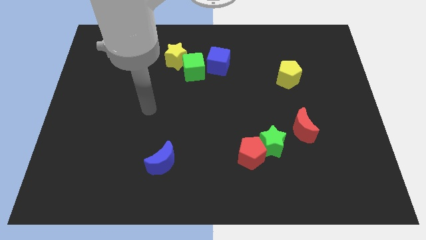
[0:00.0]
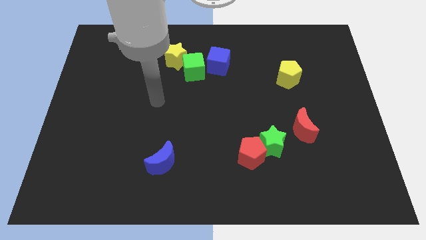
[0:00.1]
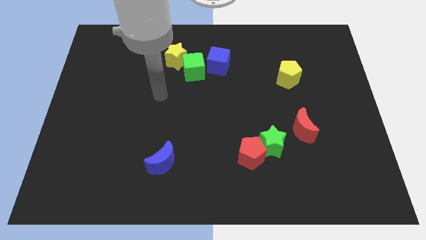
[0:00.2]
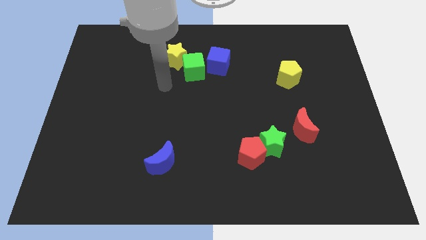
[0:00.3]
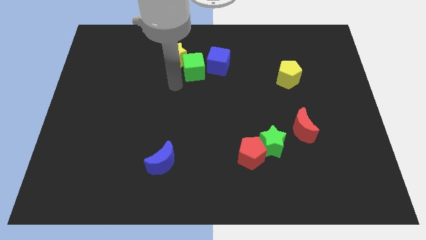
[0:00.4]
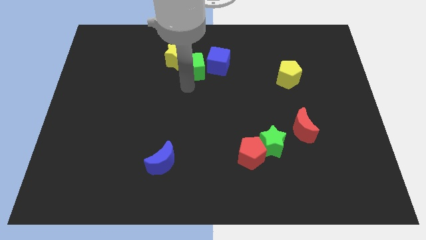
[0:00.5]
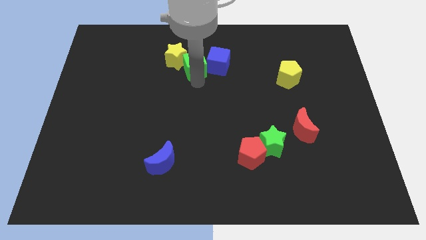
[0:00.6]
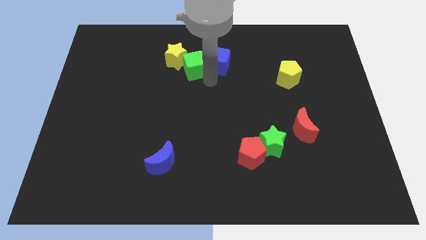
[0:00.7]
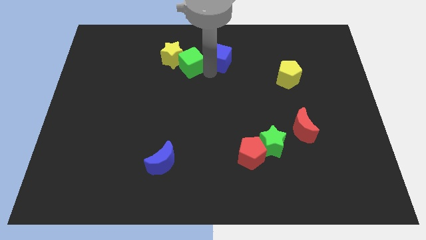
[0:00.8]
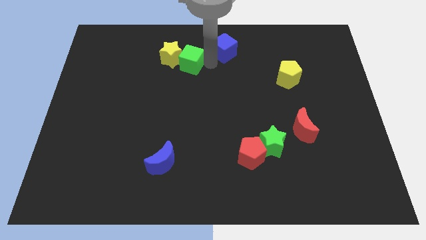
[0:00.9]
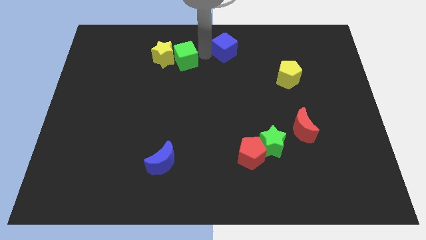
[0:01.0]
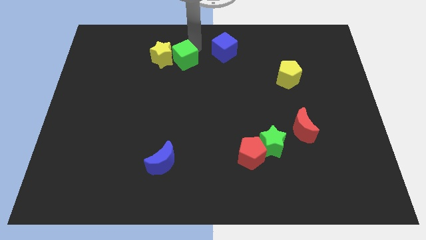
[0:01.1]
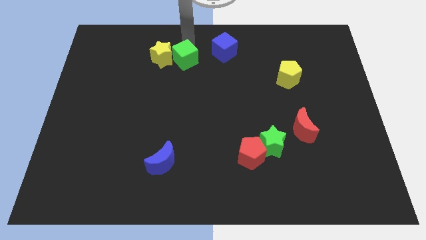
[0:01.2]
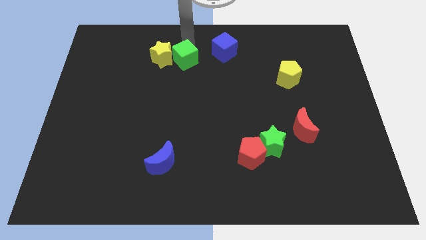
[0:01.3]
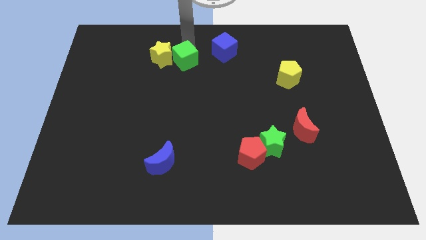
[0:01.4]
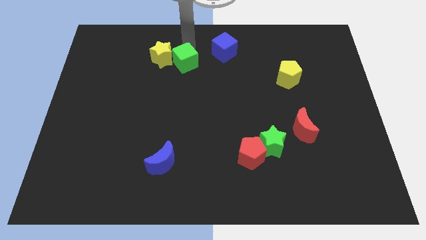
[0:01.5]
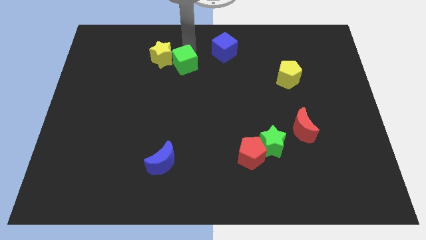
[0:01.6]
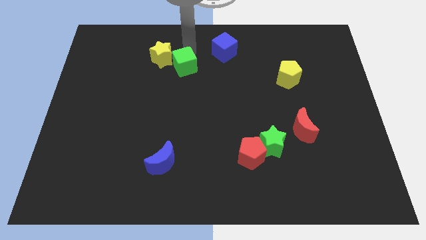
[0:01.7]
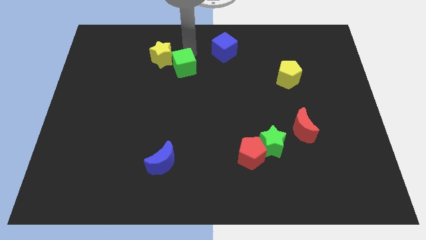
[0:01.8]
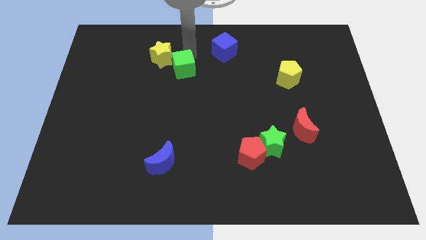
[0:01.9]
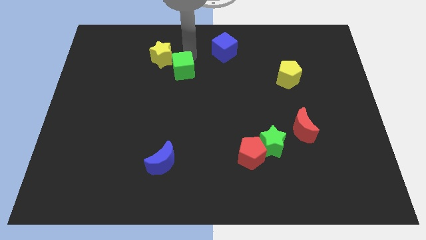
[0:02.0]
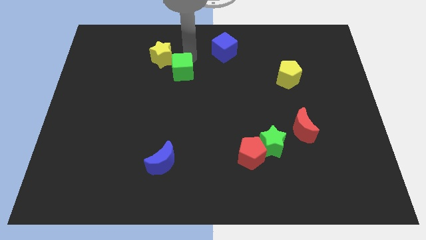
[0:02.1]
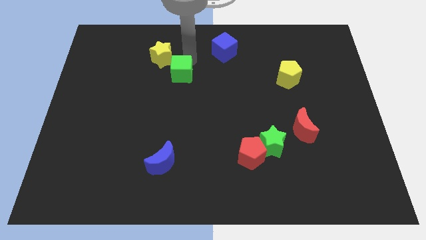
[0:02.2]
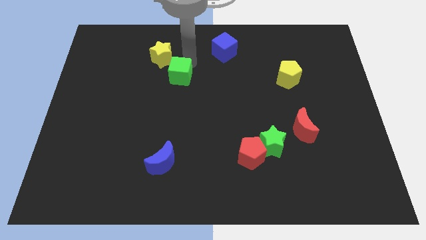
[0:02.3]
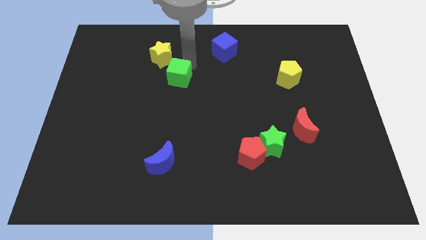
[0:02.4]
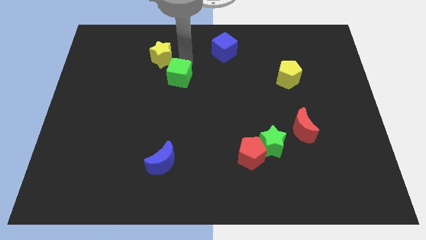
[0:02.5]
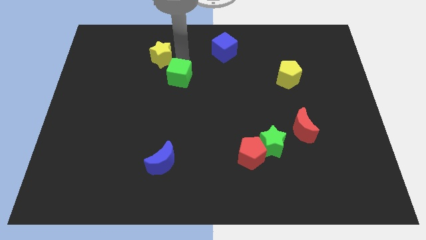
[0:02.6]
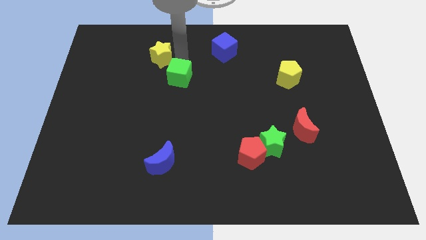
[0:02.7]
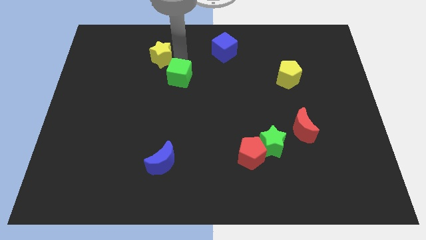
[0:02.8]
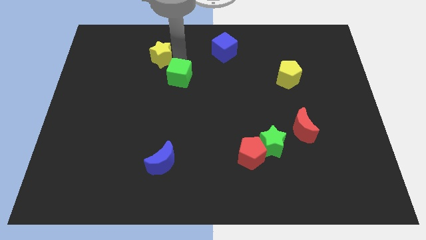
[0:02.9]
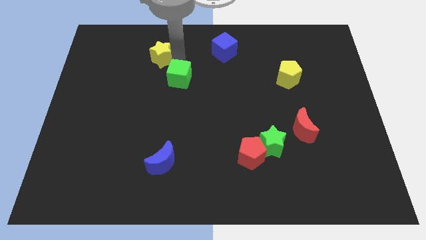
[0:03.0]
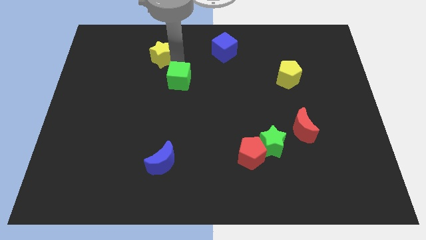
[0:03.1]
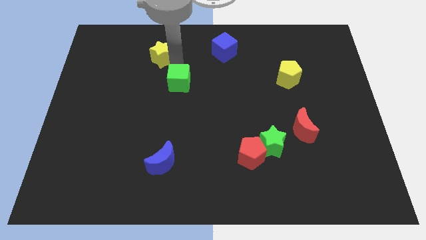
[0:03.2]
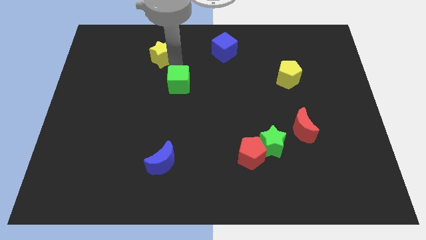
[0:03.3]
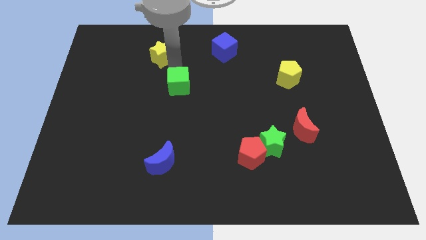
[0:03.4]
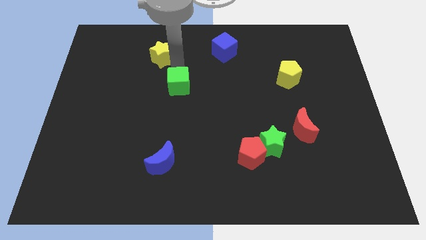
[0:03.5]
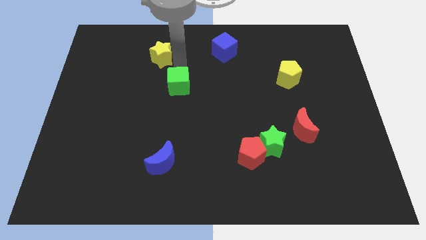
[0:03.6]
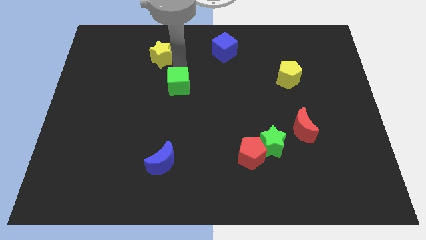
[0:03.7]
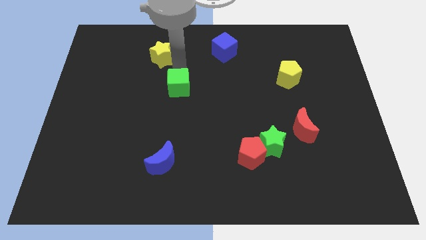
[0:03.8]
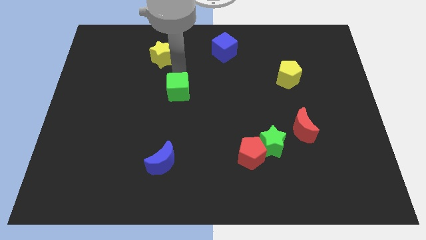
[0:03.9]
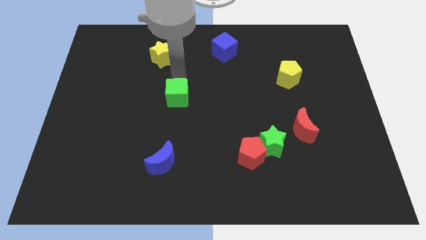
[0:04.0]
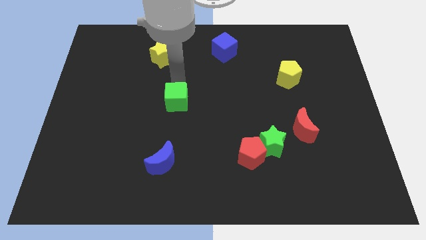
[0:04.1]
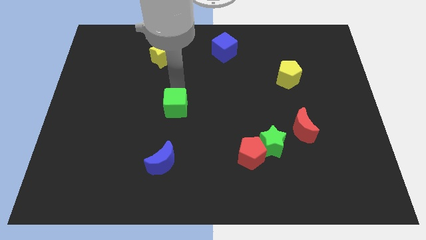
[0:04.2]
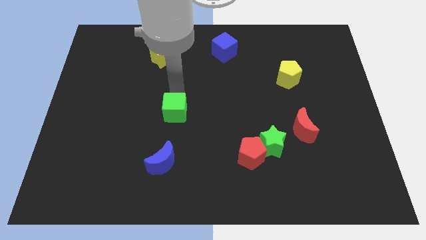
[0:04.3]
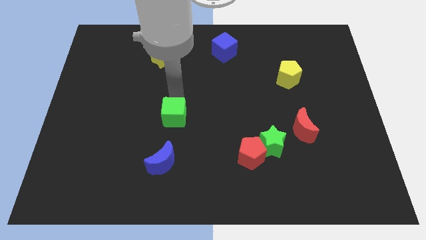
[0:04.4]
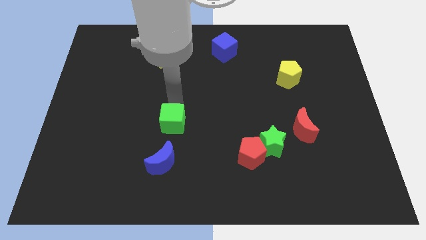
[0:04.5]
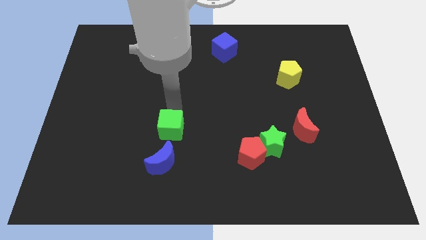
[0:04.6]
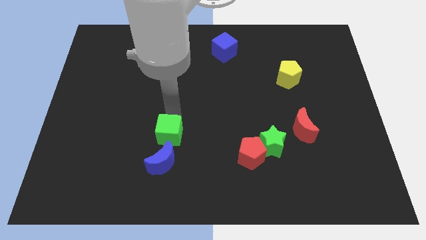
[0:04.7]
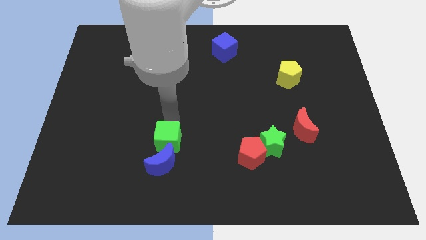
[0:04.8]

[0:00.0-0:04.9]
put the green cube towards the blue moon

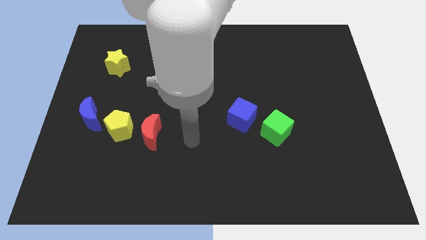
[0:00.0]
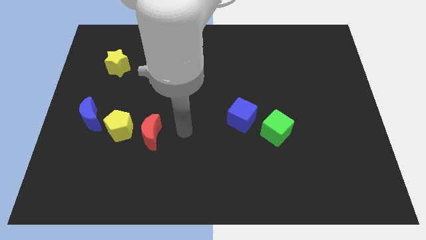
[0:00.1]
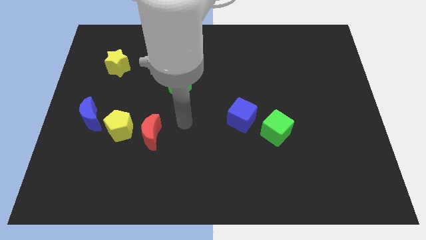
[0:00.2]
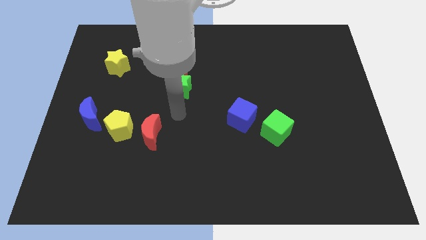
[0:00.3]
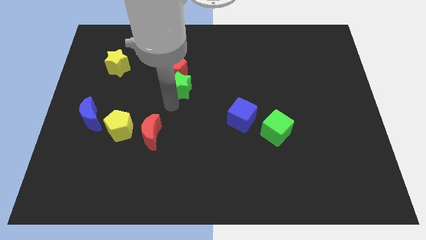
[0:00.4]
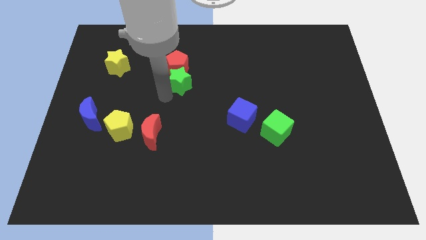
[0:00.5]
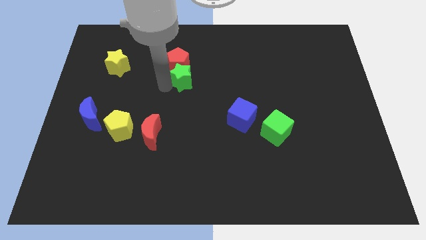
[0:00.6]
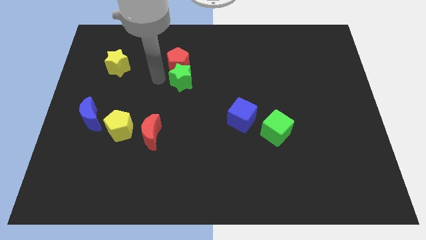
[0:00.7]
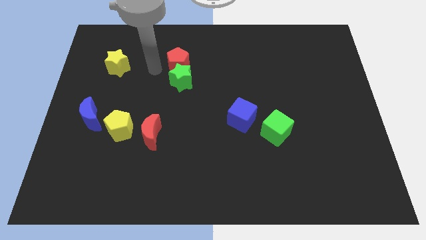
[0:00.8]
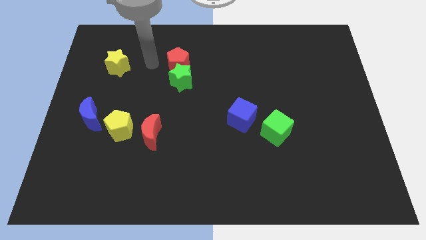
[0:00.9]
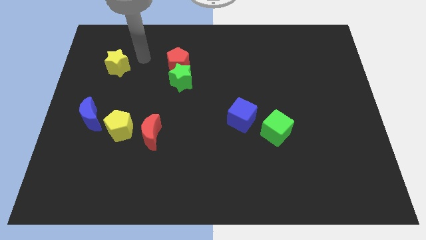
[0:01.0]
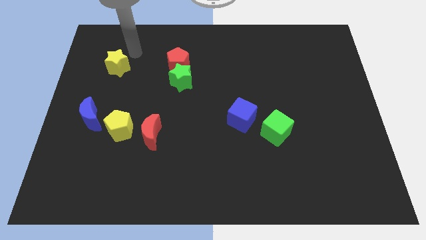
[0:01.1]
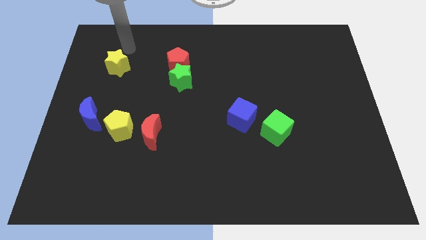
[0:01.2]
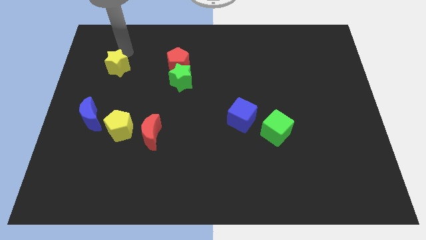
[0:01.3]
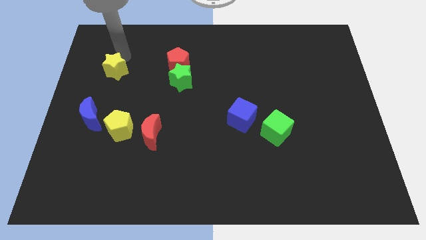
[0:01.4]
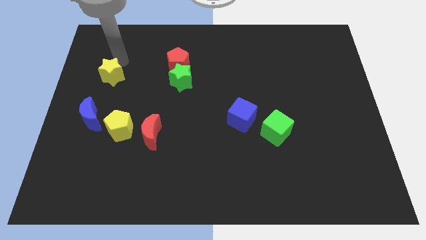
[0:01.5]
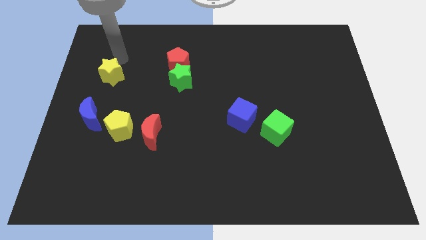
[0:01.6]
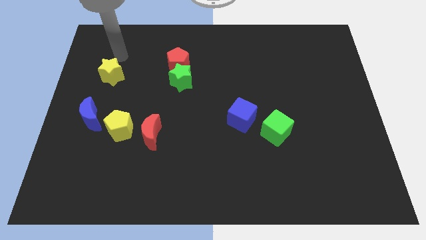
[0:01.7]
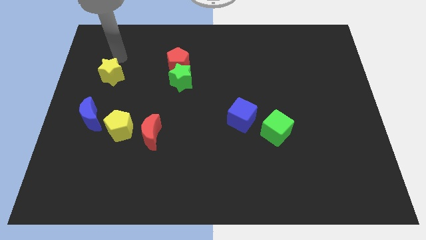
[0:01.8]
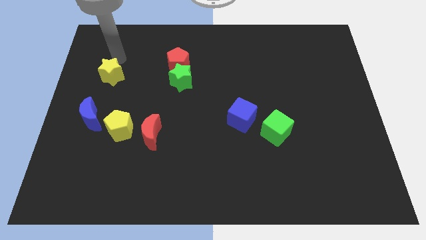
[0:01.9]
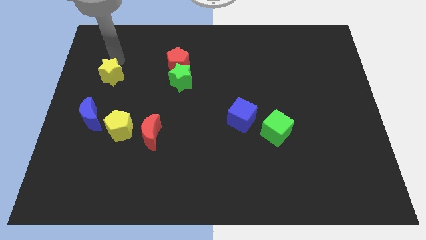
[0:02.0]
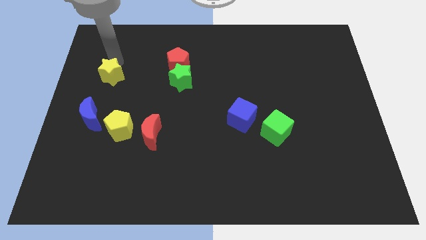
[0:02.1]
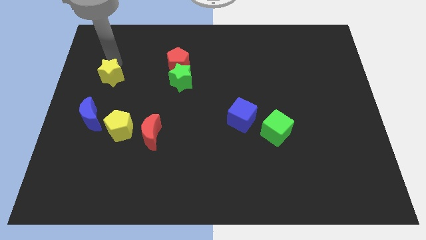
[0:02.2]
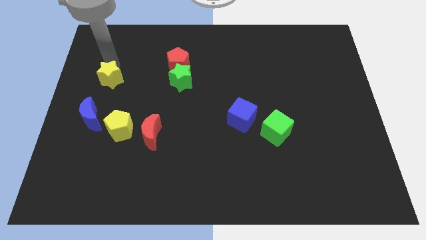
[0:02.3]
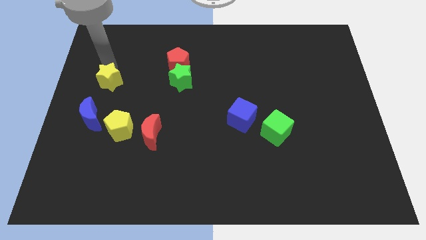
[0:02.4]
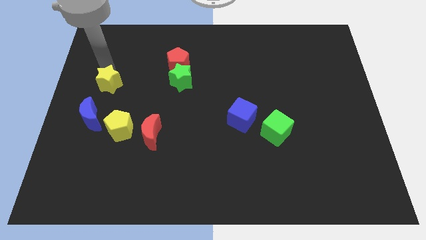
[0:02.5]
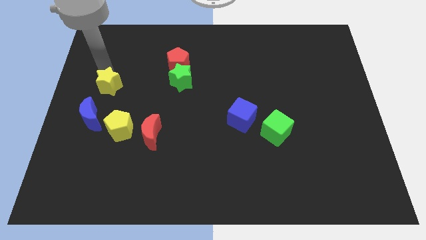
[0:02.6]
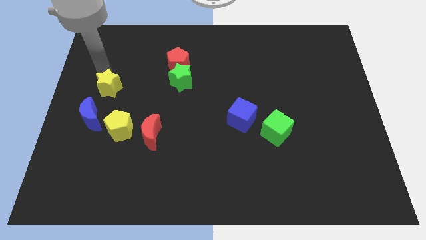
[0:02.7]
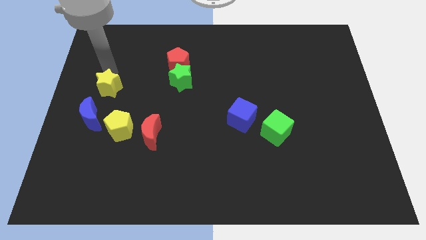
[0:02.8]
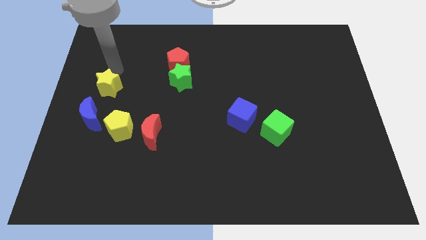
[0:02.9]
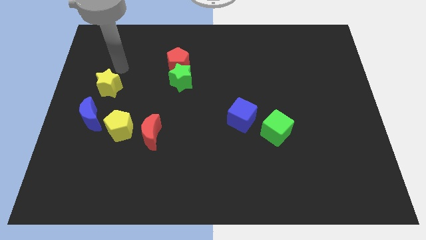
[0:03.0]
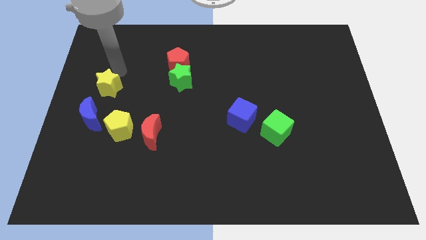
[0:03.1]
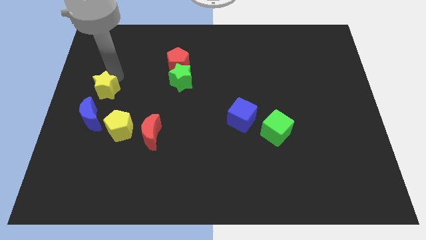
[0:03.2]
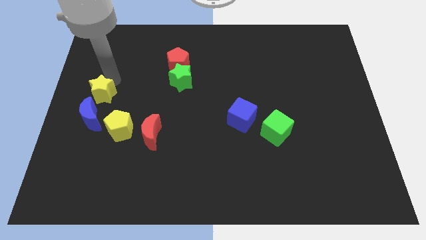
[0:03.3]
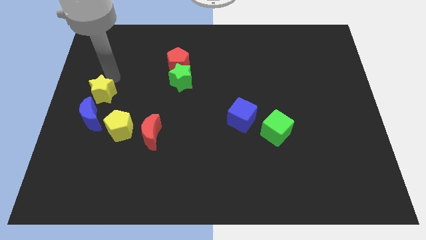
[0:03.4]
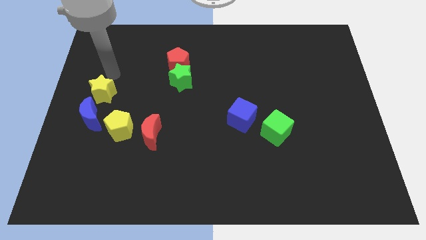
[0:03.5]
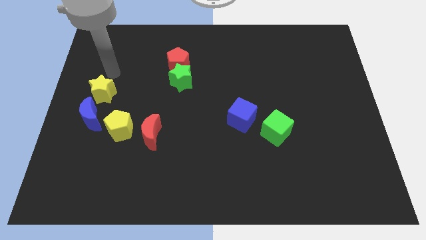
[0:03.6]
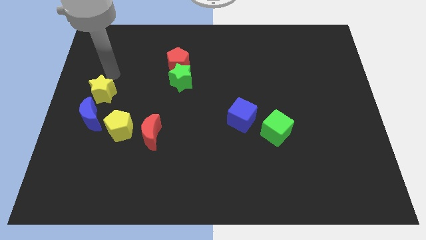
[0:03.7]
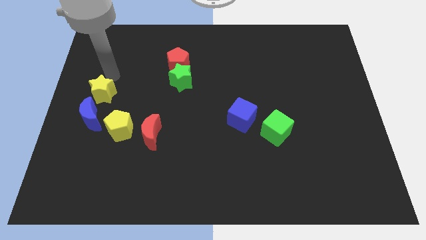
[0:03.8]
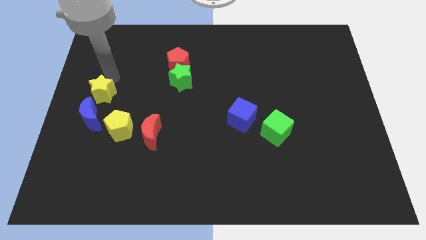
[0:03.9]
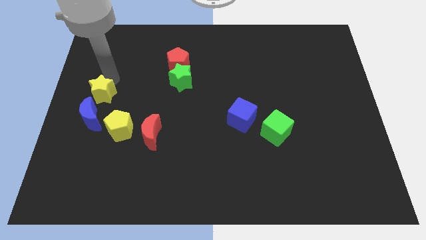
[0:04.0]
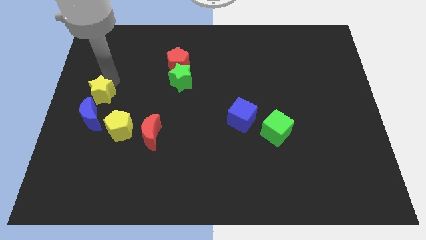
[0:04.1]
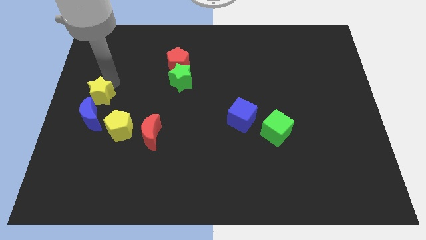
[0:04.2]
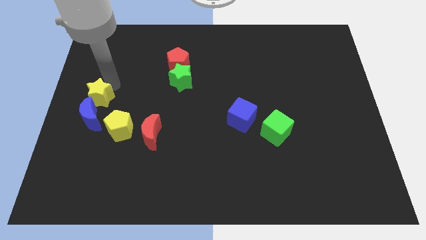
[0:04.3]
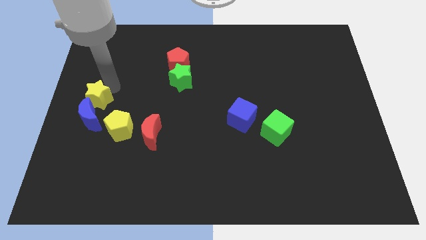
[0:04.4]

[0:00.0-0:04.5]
move the yellow star to the blue moon
